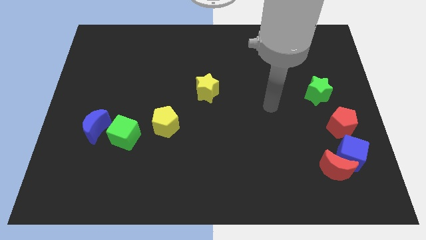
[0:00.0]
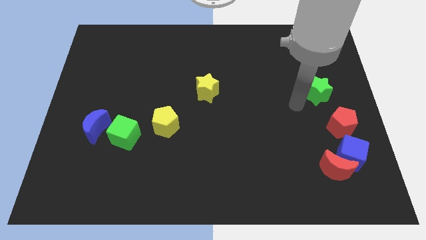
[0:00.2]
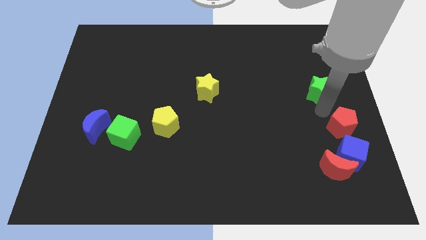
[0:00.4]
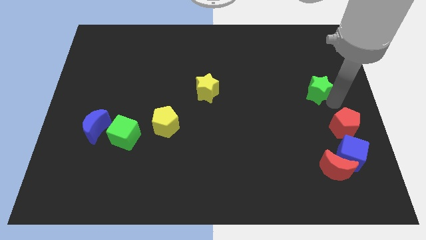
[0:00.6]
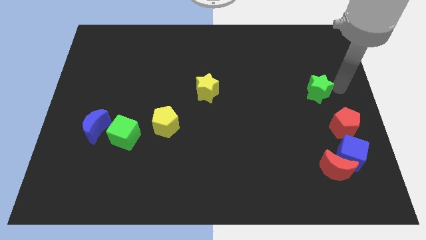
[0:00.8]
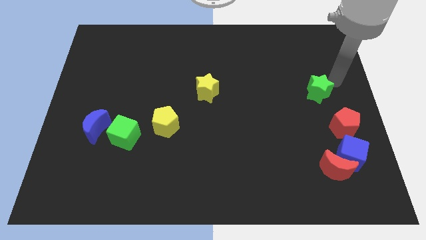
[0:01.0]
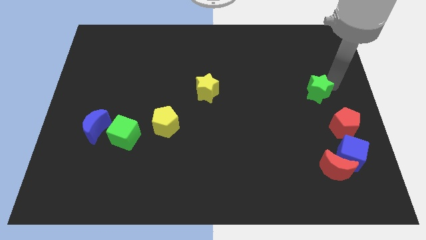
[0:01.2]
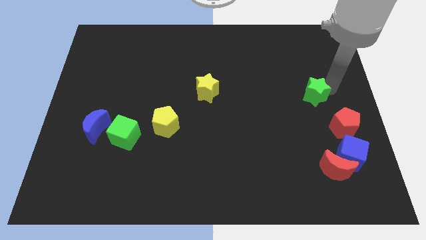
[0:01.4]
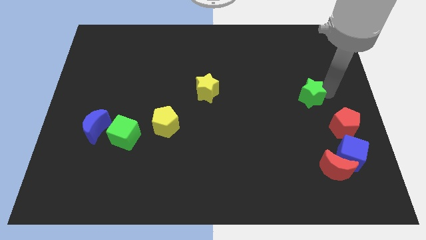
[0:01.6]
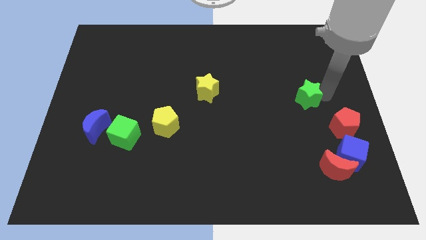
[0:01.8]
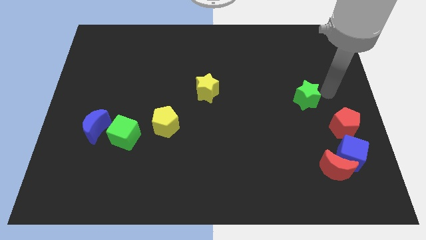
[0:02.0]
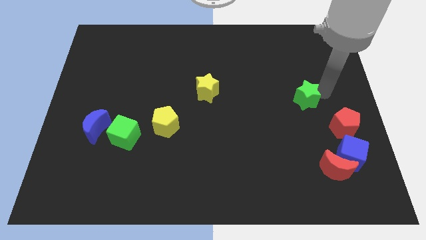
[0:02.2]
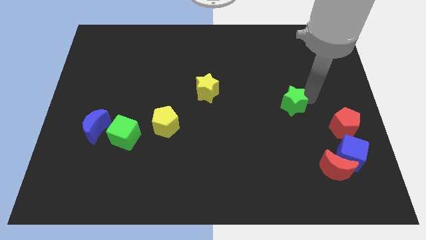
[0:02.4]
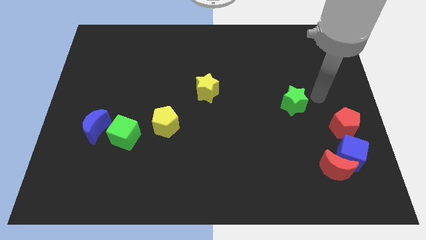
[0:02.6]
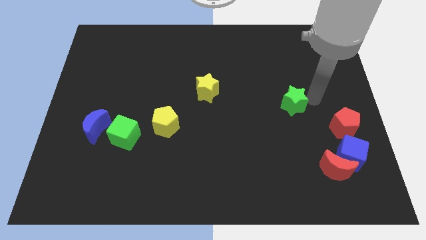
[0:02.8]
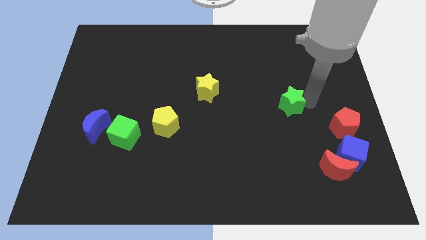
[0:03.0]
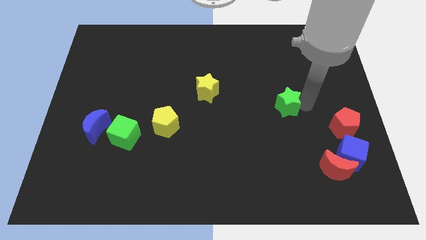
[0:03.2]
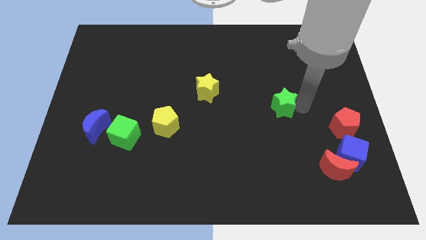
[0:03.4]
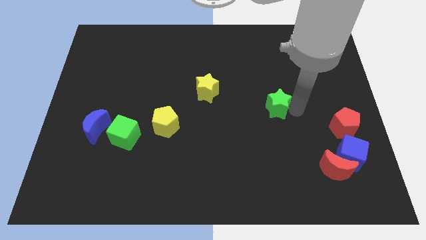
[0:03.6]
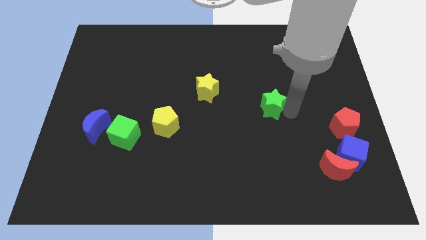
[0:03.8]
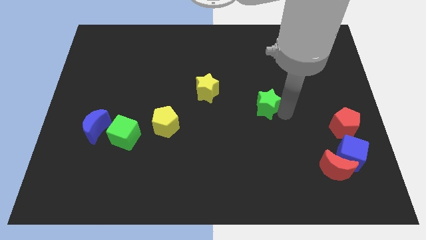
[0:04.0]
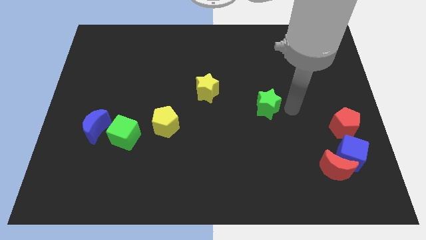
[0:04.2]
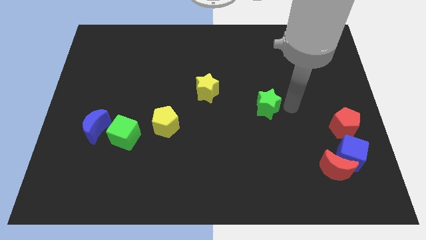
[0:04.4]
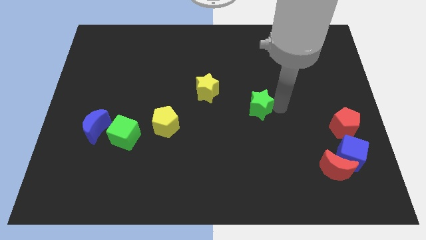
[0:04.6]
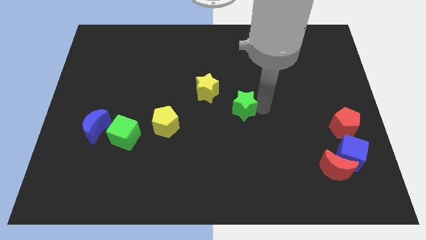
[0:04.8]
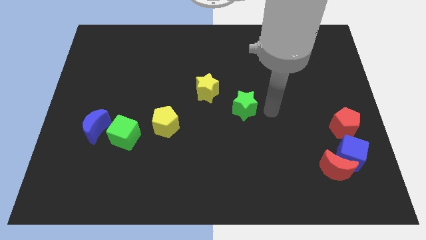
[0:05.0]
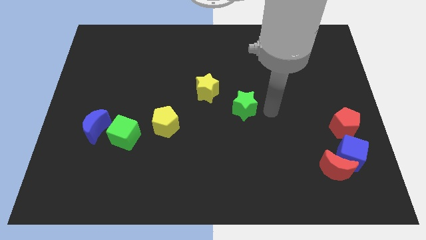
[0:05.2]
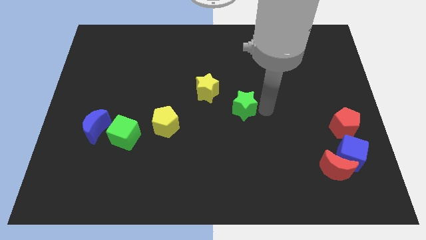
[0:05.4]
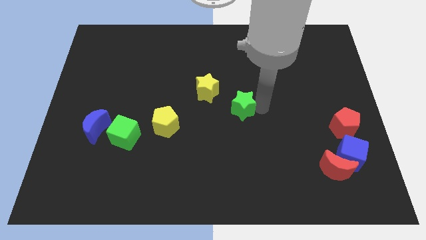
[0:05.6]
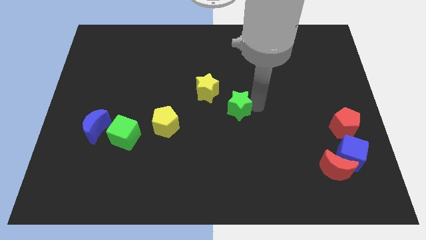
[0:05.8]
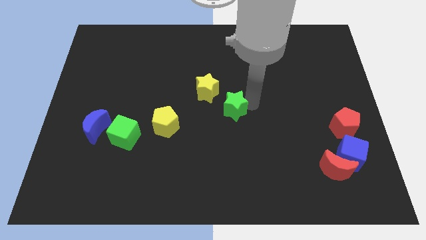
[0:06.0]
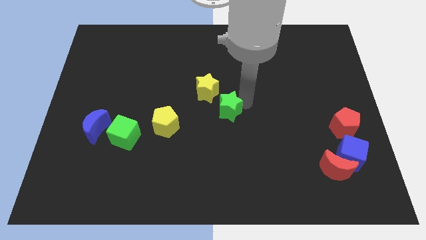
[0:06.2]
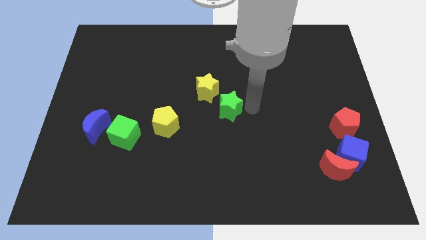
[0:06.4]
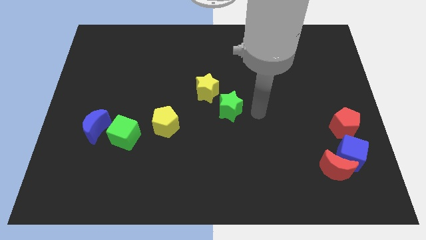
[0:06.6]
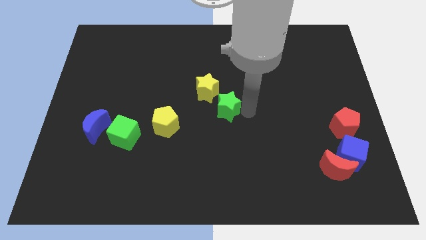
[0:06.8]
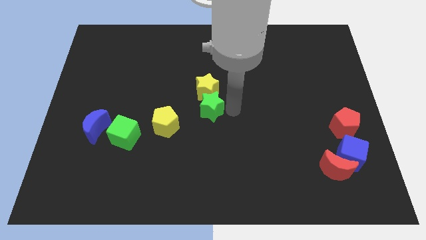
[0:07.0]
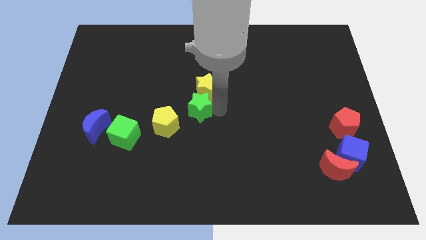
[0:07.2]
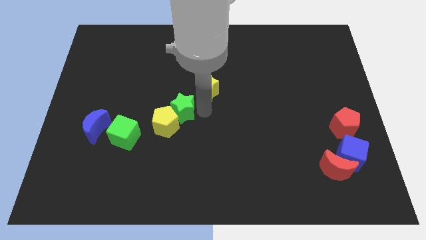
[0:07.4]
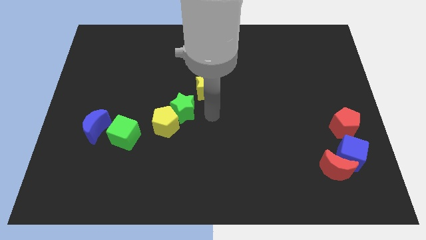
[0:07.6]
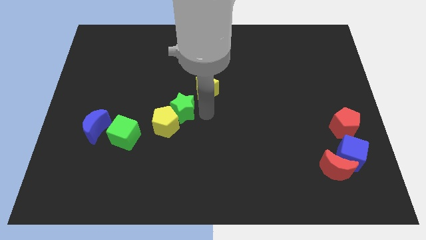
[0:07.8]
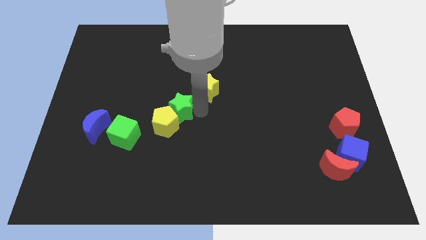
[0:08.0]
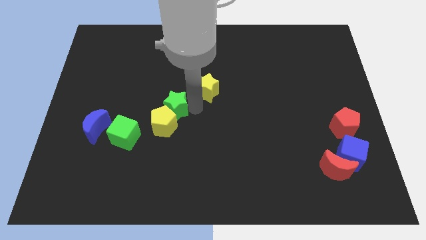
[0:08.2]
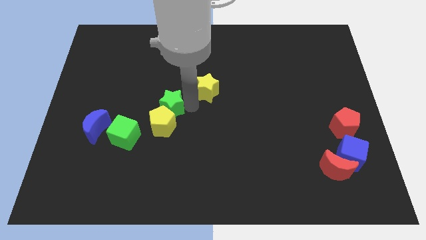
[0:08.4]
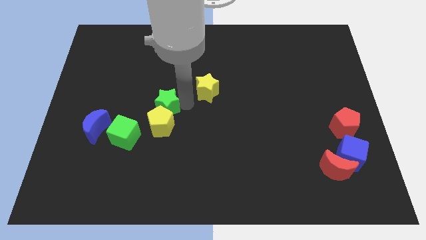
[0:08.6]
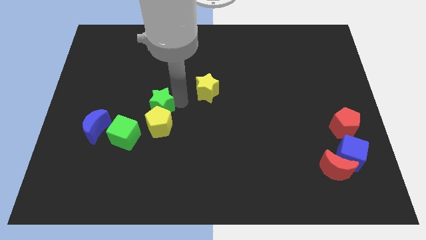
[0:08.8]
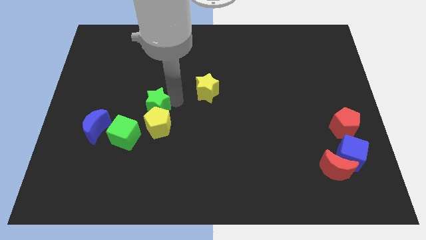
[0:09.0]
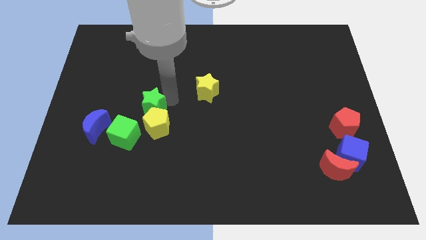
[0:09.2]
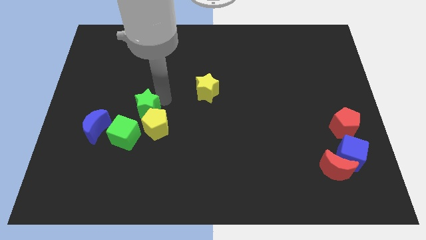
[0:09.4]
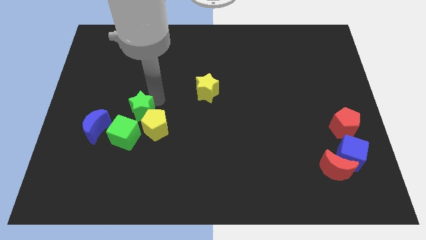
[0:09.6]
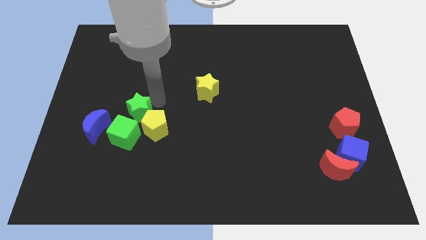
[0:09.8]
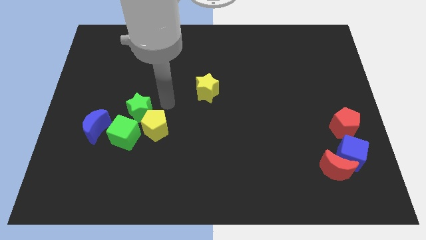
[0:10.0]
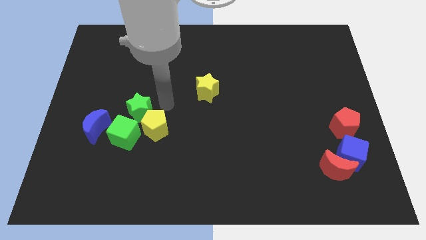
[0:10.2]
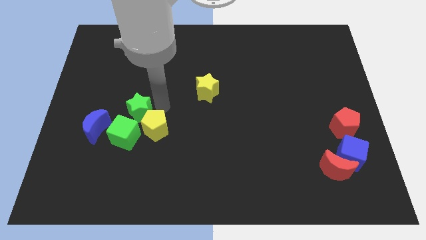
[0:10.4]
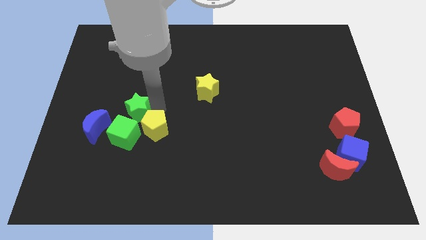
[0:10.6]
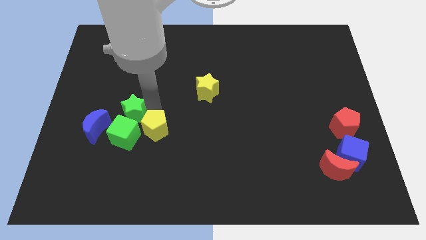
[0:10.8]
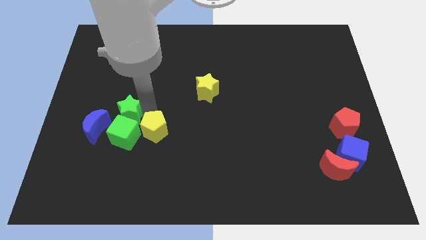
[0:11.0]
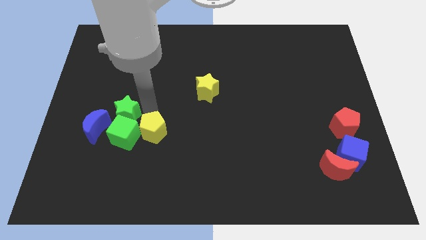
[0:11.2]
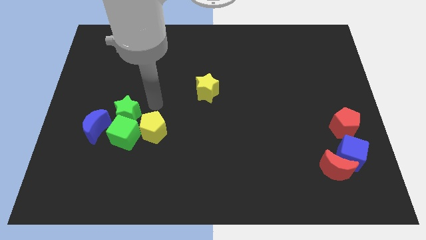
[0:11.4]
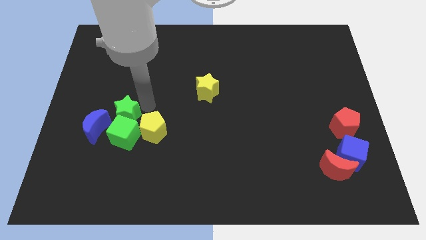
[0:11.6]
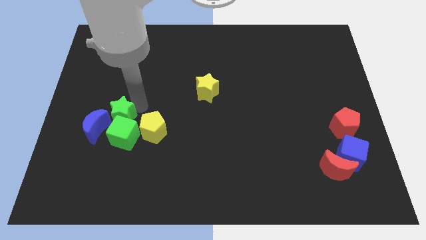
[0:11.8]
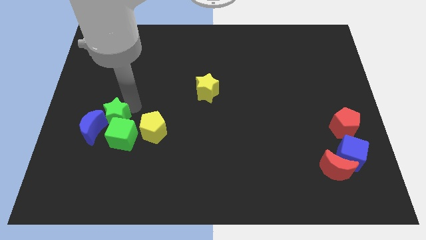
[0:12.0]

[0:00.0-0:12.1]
move the green star next to the blue moon

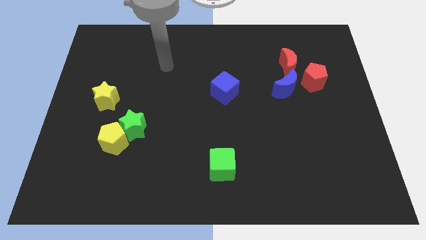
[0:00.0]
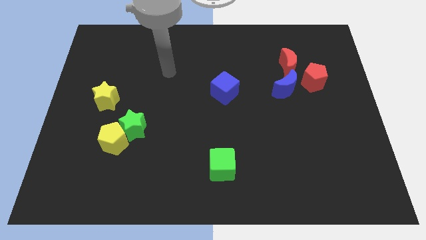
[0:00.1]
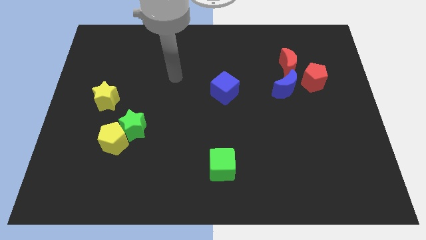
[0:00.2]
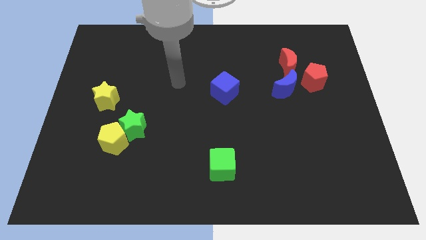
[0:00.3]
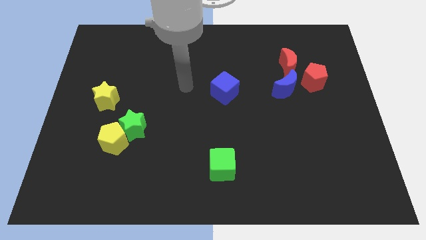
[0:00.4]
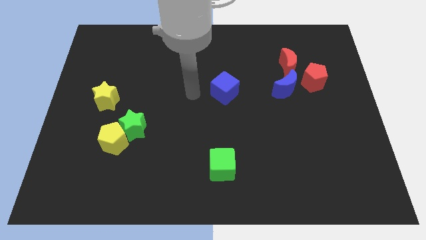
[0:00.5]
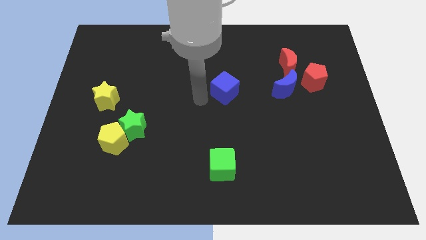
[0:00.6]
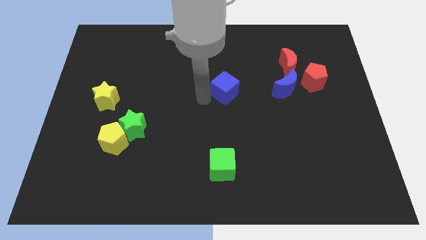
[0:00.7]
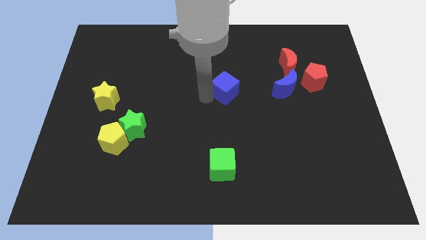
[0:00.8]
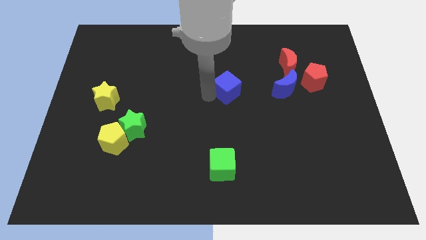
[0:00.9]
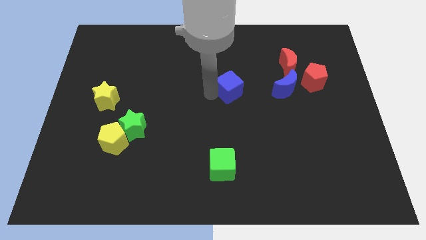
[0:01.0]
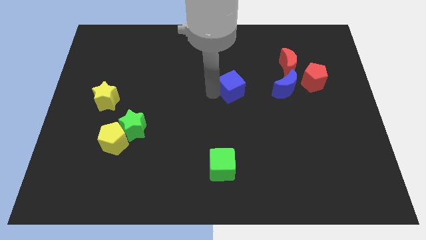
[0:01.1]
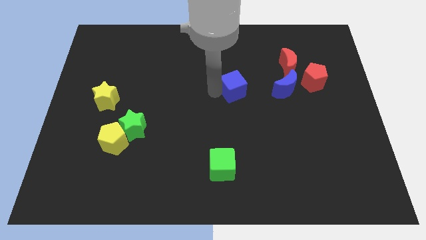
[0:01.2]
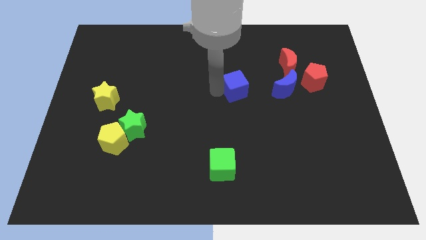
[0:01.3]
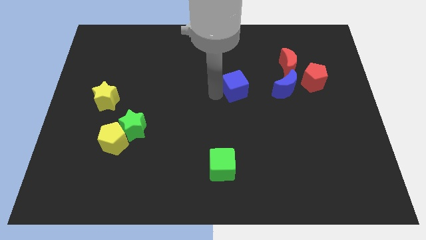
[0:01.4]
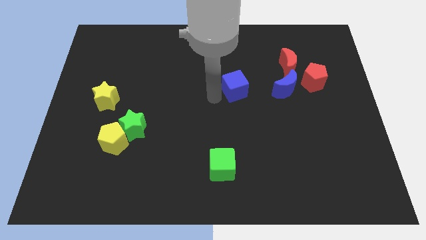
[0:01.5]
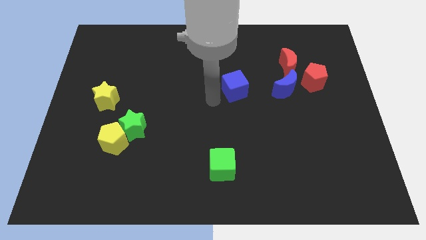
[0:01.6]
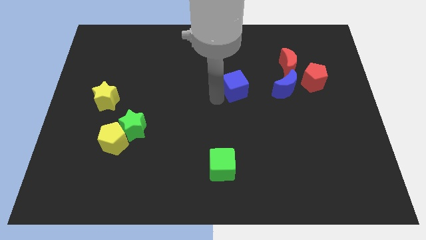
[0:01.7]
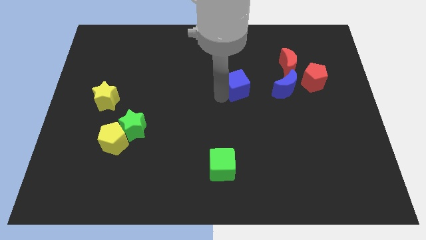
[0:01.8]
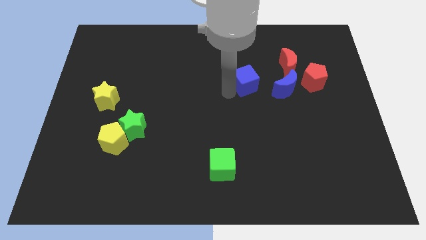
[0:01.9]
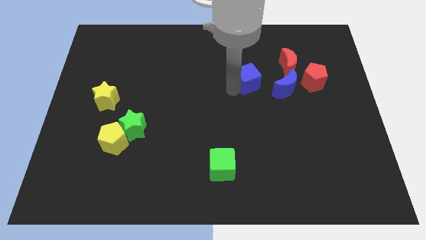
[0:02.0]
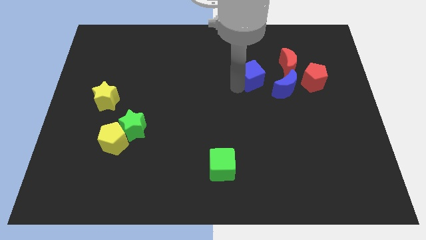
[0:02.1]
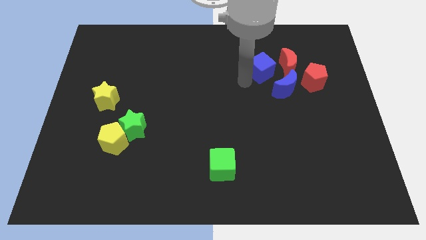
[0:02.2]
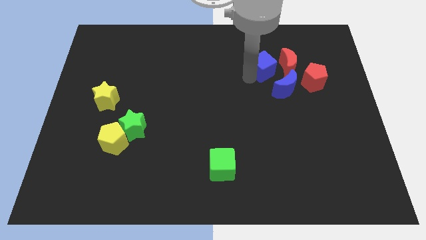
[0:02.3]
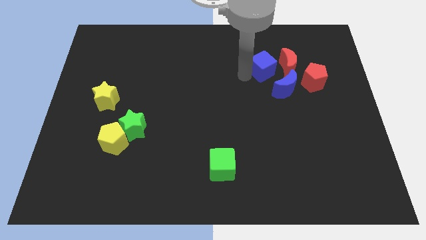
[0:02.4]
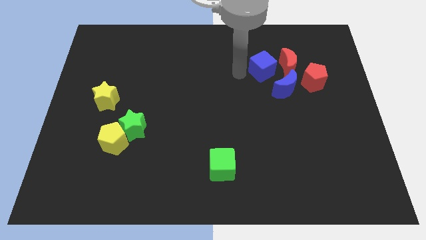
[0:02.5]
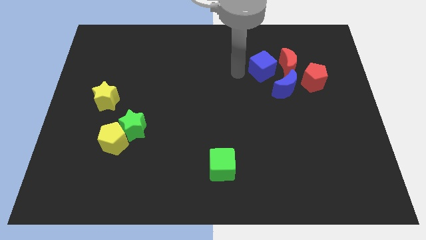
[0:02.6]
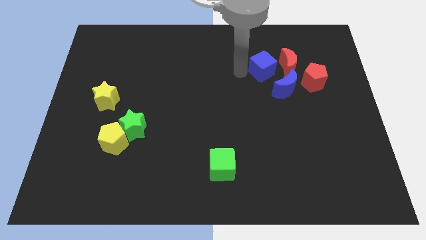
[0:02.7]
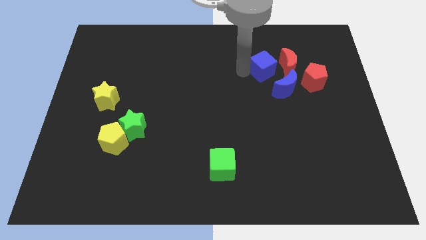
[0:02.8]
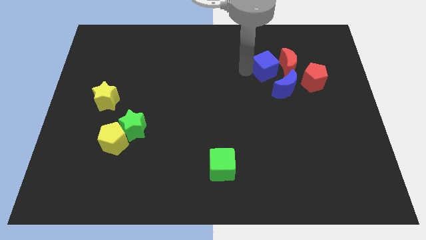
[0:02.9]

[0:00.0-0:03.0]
put the blue cube towards the red moon
